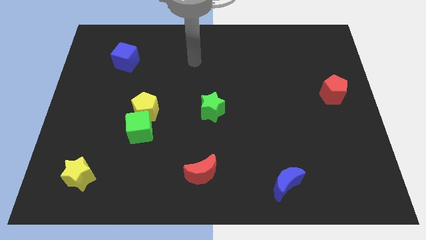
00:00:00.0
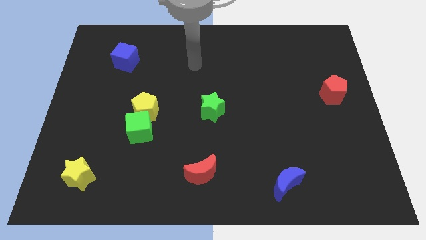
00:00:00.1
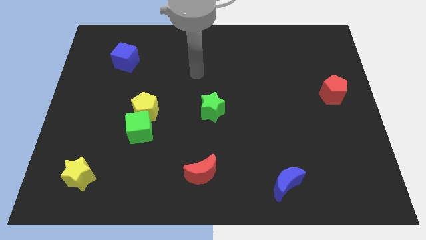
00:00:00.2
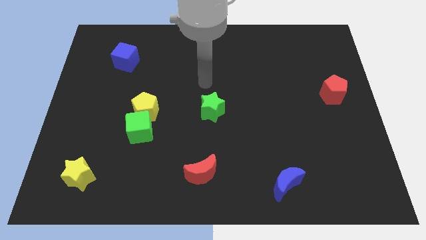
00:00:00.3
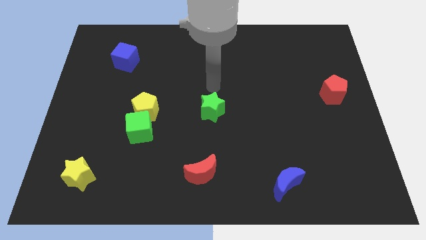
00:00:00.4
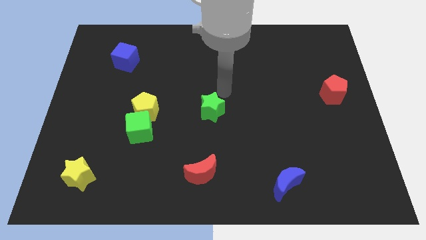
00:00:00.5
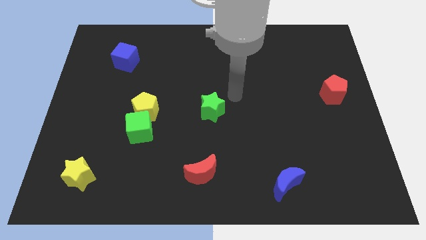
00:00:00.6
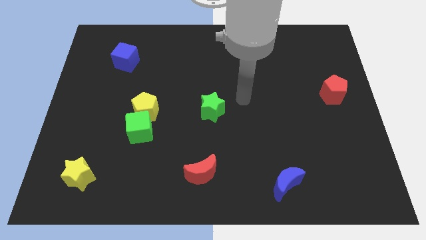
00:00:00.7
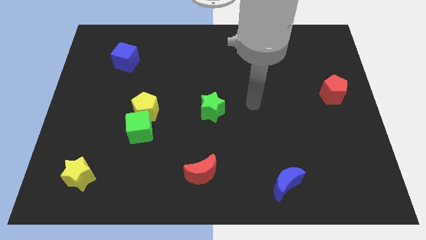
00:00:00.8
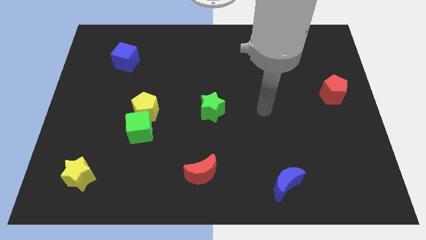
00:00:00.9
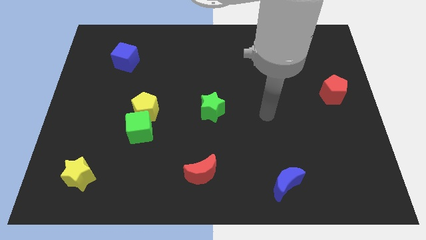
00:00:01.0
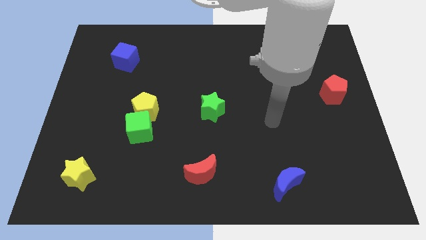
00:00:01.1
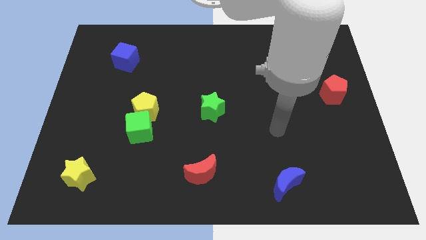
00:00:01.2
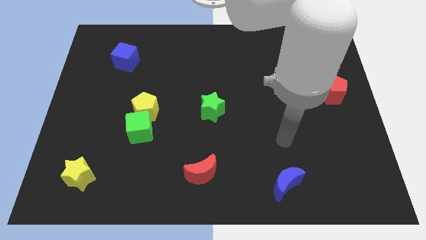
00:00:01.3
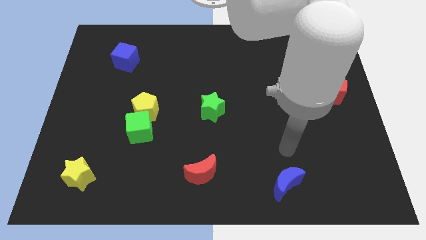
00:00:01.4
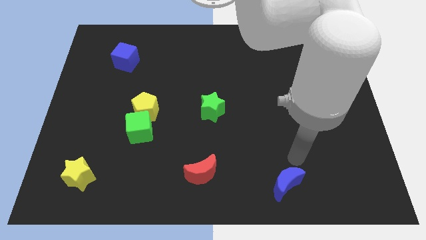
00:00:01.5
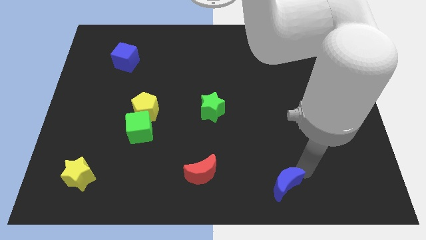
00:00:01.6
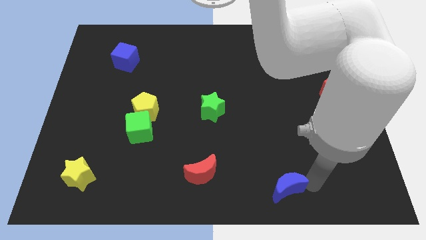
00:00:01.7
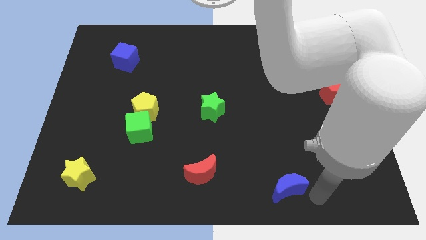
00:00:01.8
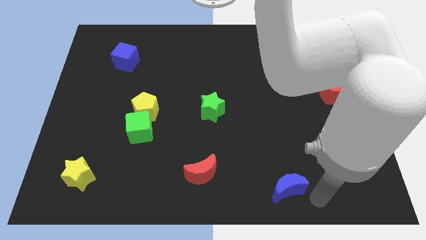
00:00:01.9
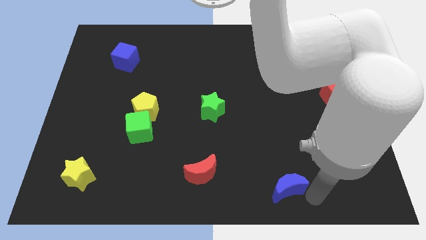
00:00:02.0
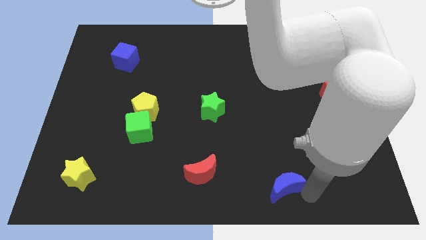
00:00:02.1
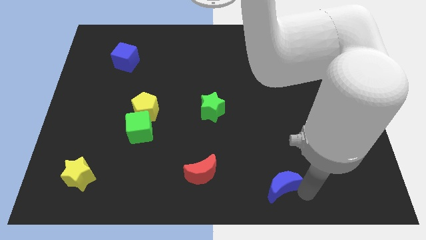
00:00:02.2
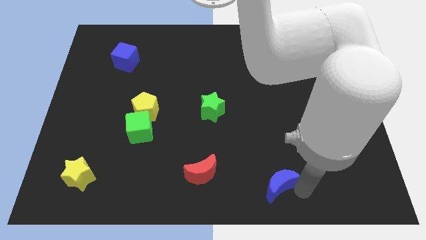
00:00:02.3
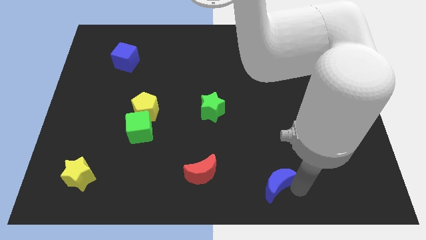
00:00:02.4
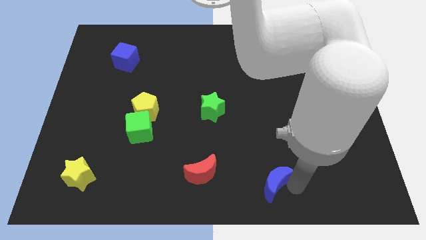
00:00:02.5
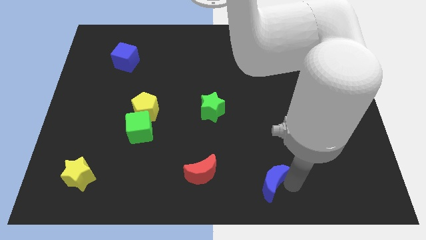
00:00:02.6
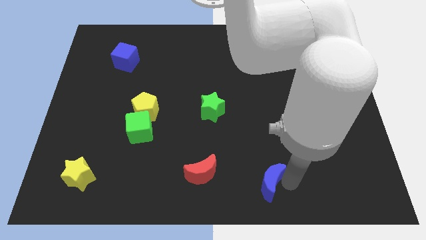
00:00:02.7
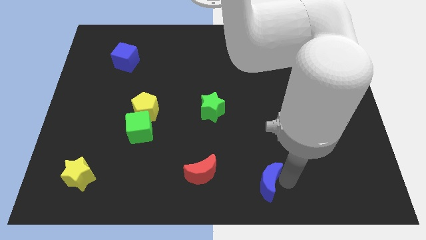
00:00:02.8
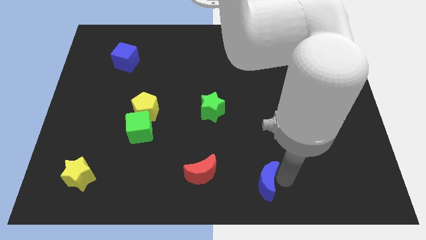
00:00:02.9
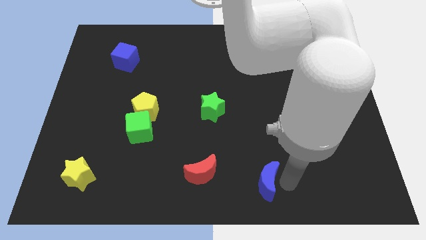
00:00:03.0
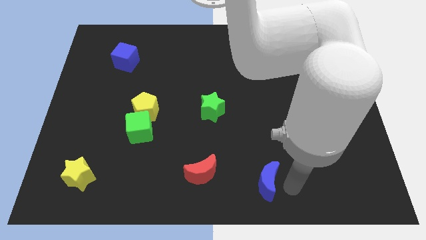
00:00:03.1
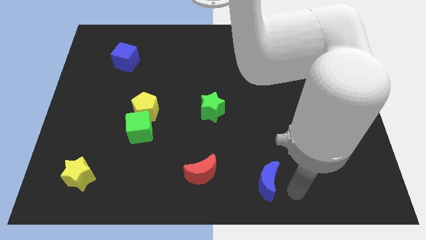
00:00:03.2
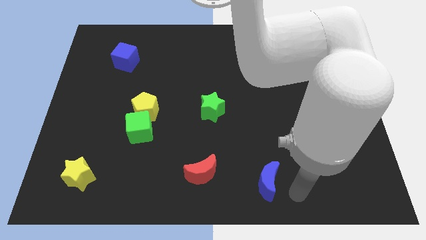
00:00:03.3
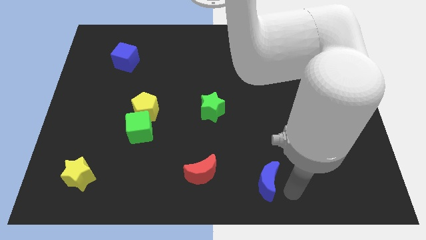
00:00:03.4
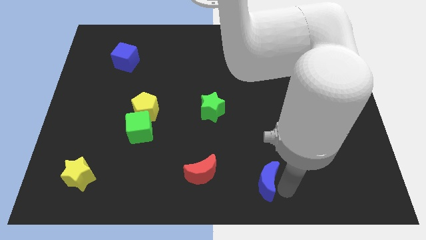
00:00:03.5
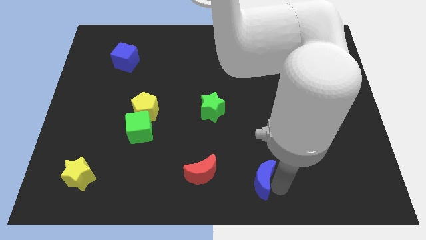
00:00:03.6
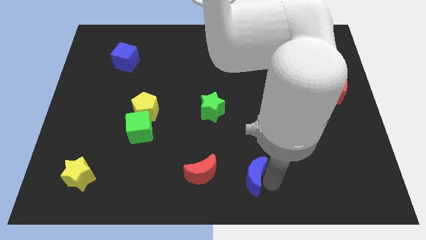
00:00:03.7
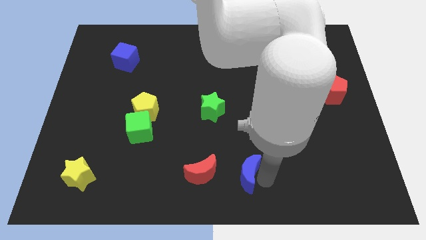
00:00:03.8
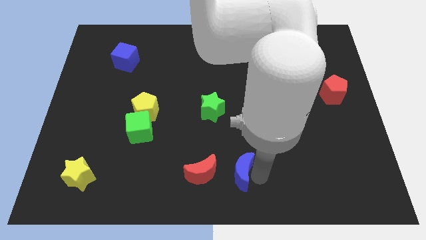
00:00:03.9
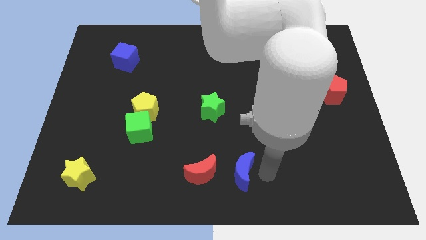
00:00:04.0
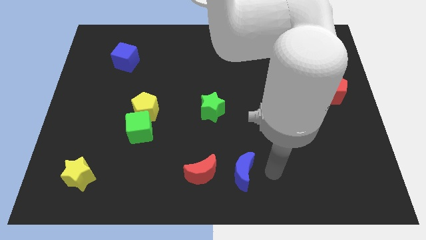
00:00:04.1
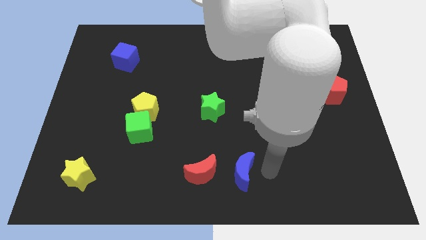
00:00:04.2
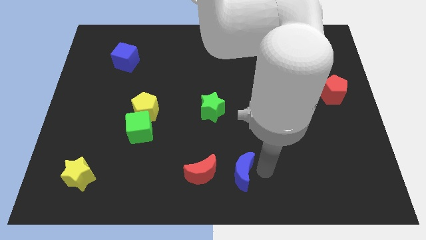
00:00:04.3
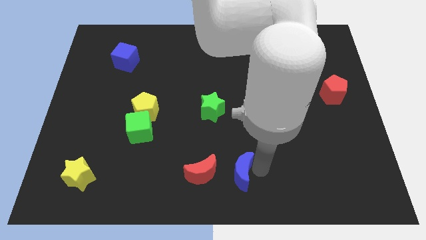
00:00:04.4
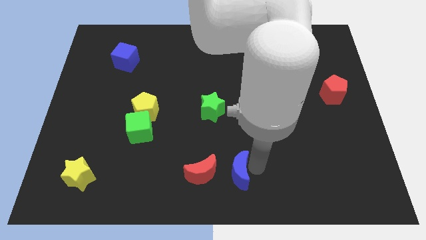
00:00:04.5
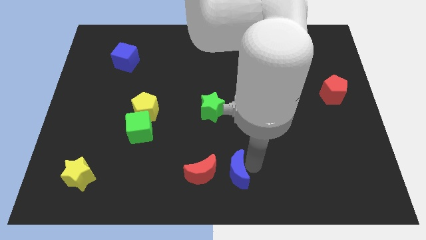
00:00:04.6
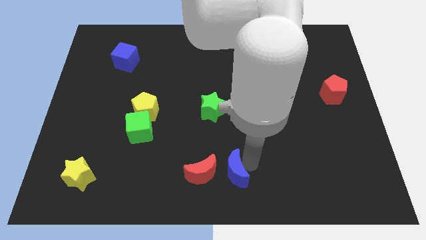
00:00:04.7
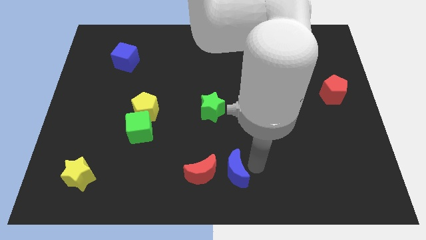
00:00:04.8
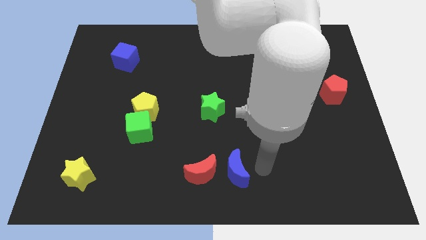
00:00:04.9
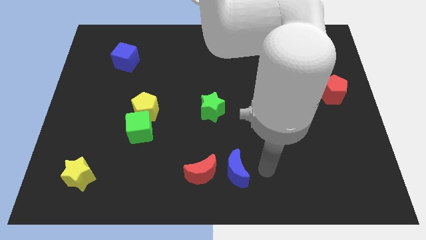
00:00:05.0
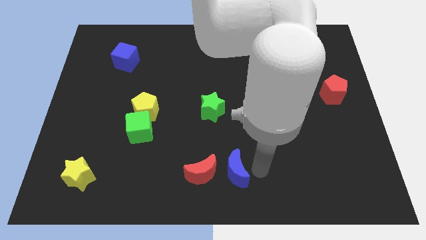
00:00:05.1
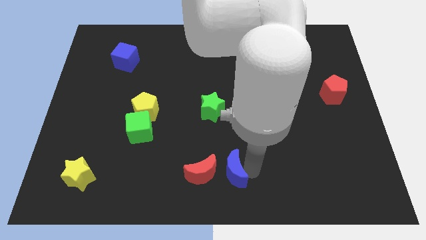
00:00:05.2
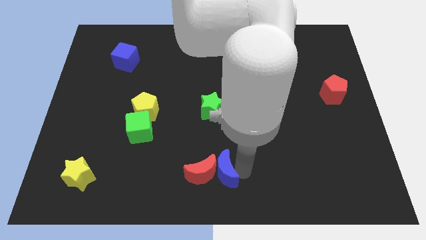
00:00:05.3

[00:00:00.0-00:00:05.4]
slide the blue moon close to the red moon

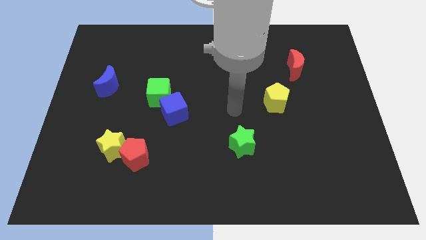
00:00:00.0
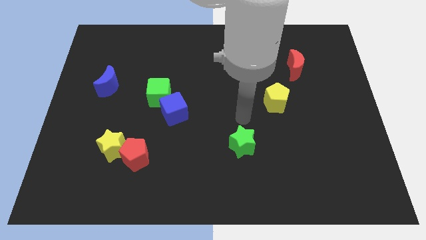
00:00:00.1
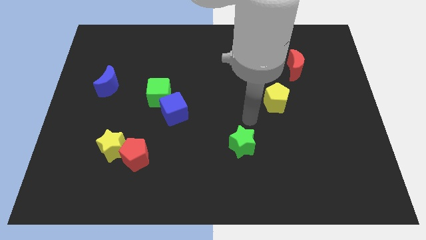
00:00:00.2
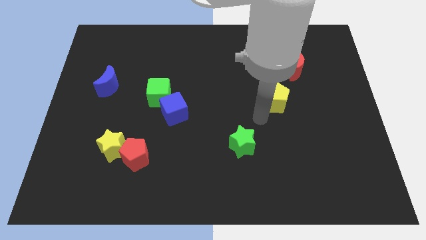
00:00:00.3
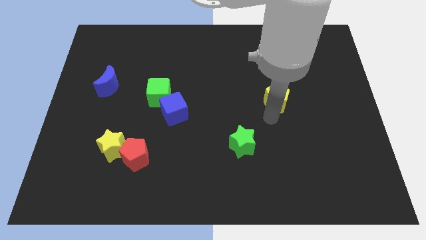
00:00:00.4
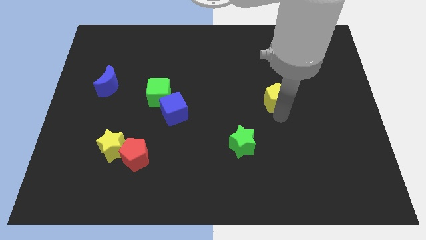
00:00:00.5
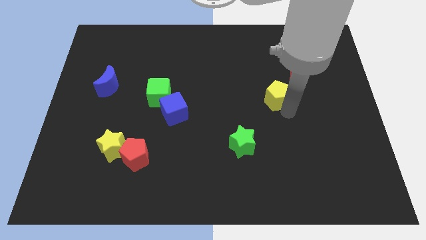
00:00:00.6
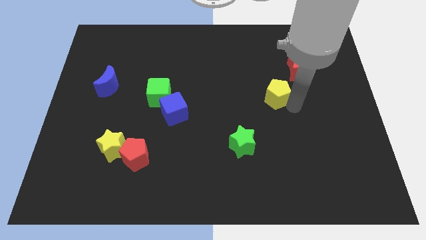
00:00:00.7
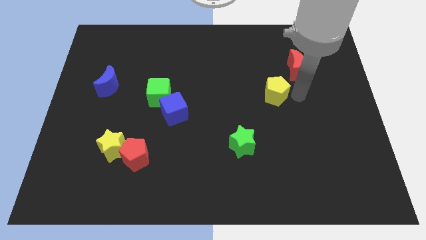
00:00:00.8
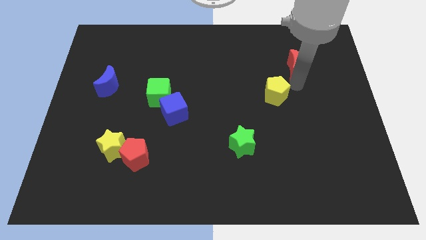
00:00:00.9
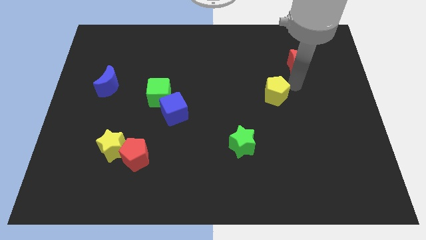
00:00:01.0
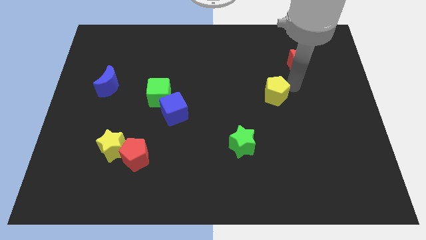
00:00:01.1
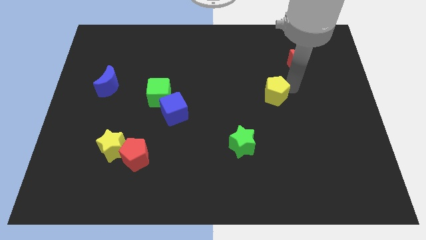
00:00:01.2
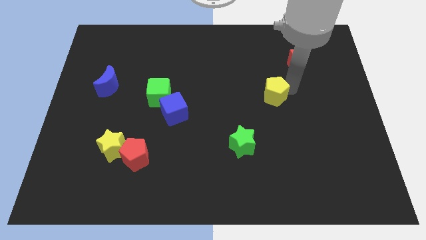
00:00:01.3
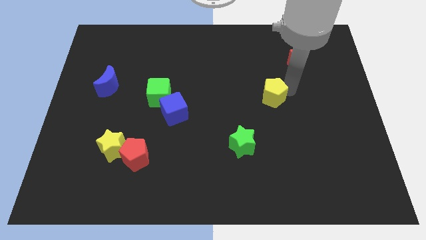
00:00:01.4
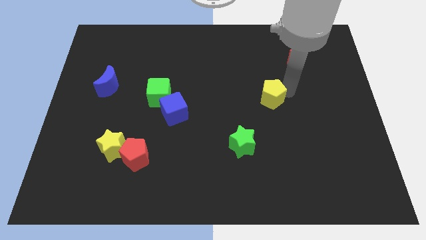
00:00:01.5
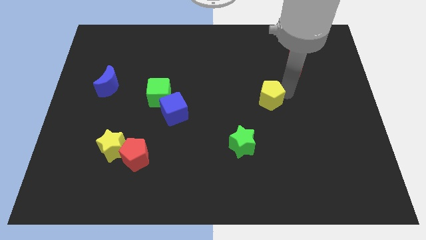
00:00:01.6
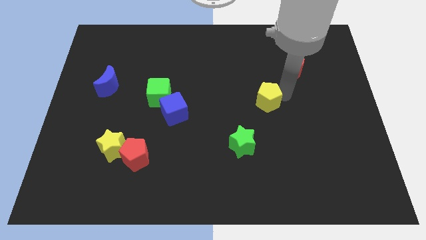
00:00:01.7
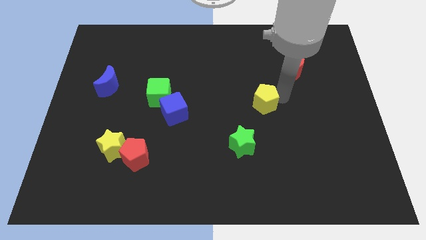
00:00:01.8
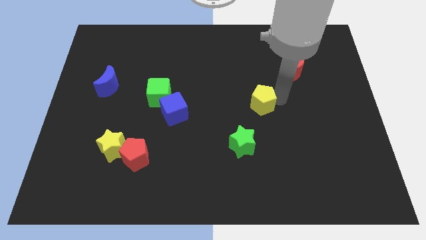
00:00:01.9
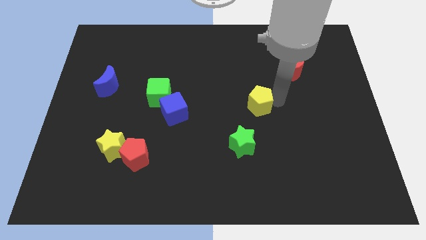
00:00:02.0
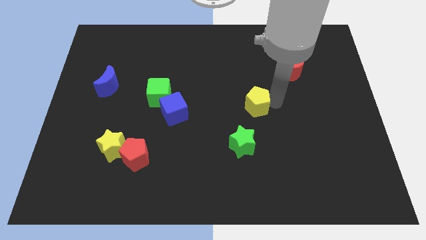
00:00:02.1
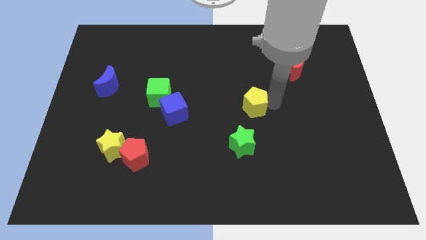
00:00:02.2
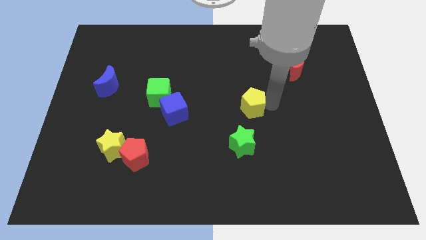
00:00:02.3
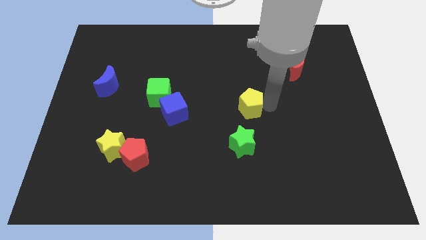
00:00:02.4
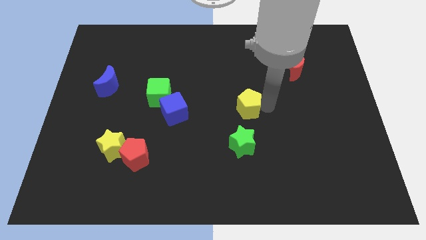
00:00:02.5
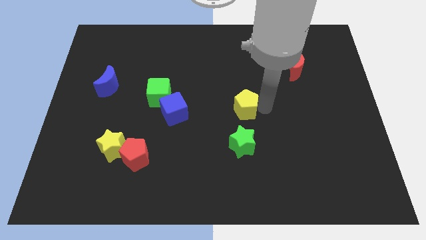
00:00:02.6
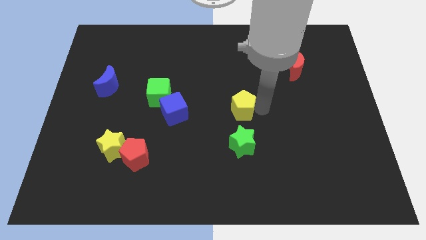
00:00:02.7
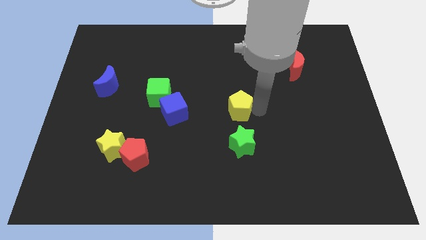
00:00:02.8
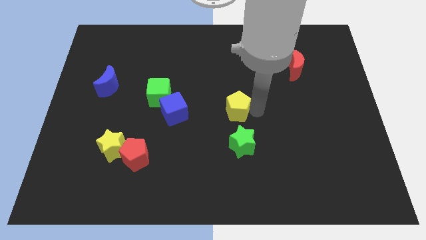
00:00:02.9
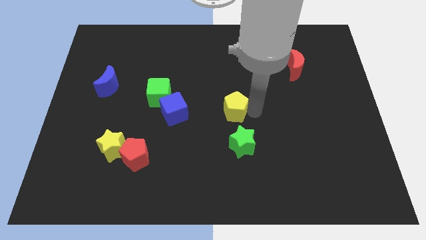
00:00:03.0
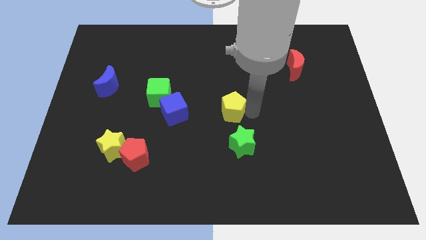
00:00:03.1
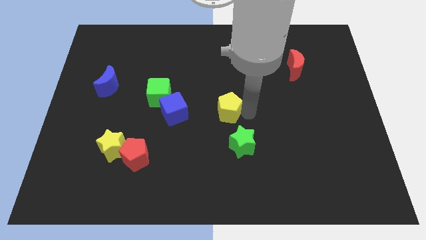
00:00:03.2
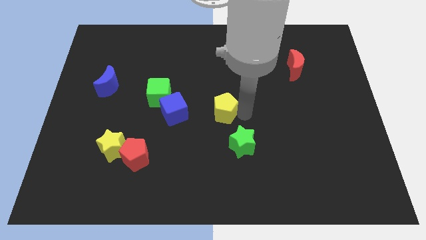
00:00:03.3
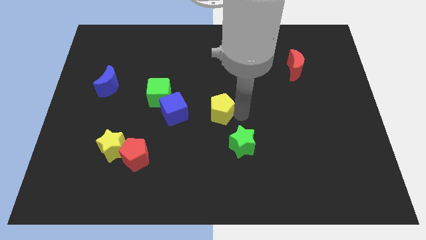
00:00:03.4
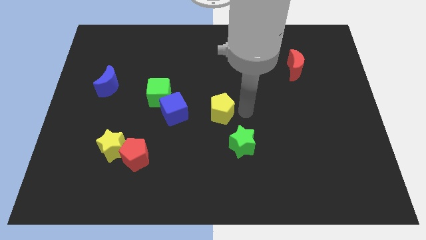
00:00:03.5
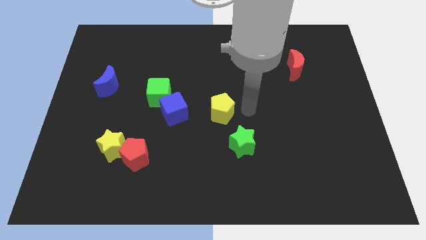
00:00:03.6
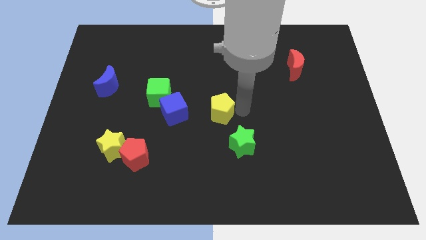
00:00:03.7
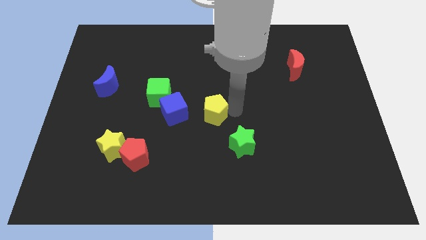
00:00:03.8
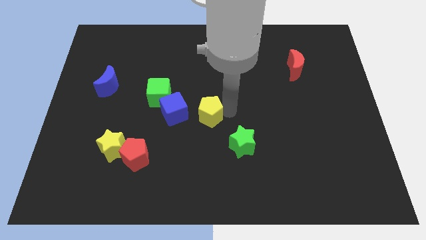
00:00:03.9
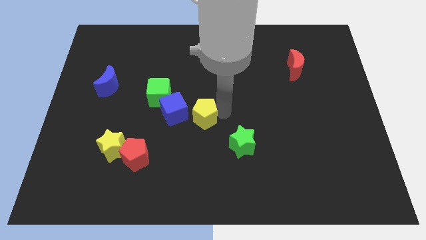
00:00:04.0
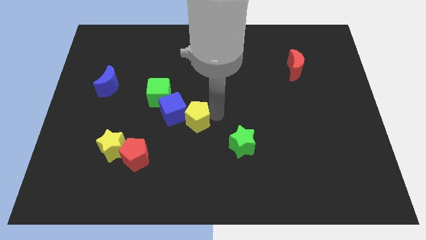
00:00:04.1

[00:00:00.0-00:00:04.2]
slide the yellow pentagon next to the blue cube
